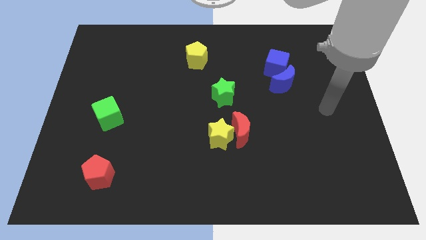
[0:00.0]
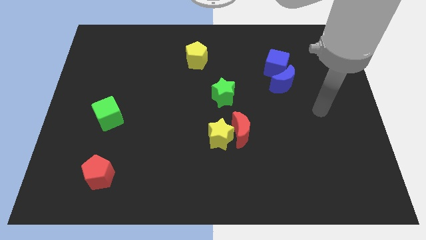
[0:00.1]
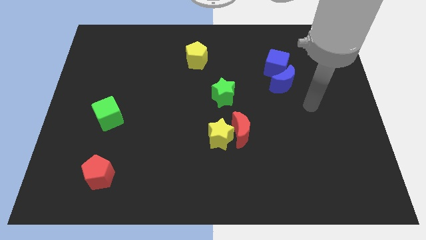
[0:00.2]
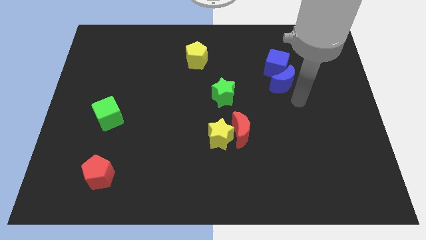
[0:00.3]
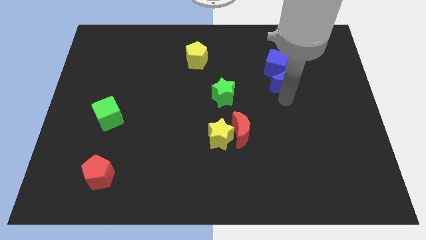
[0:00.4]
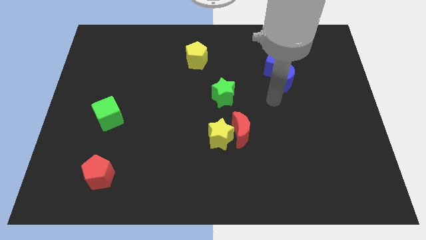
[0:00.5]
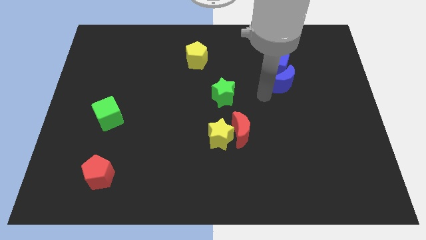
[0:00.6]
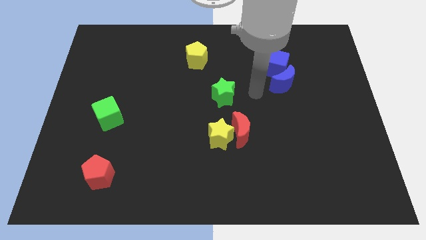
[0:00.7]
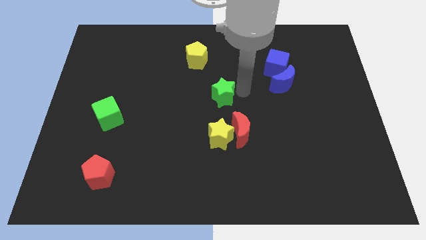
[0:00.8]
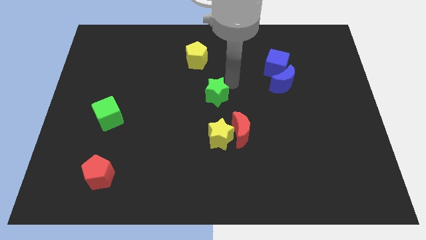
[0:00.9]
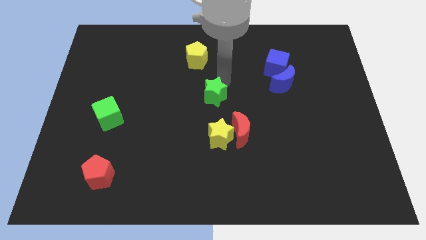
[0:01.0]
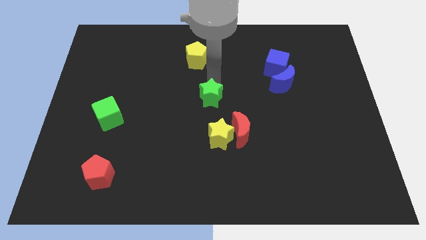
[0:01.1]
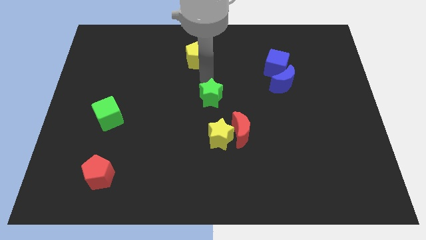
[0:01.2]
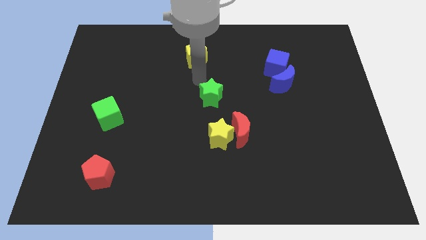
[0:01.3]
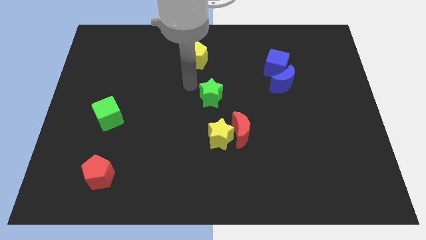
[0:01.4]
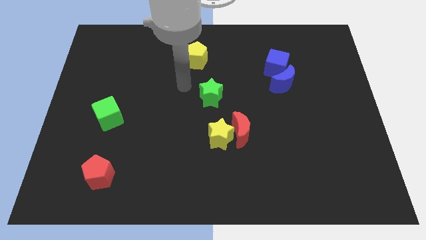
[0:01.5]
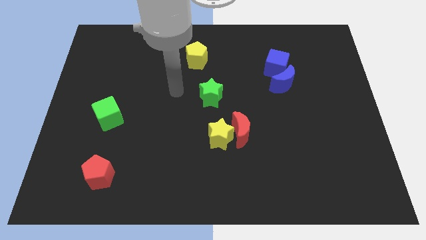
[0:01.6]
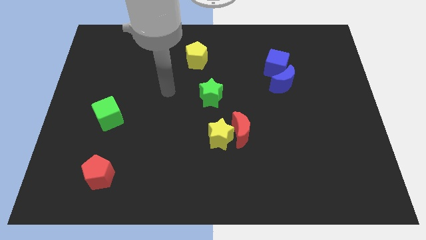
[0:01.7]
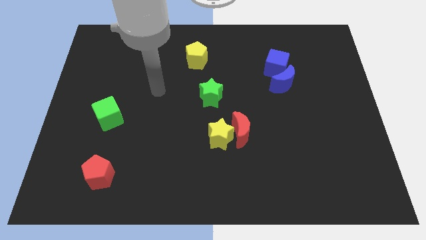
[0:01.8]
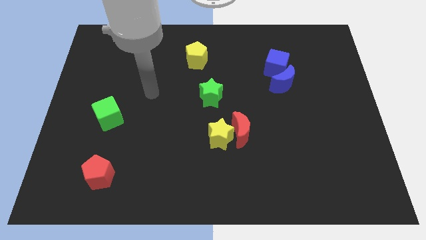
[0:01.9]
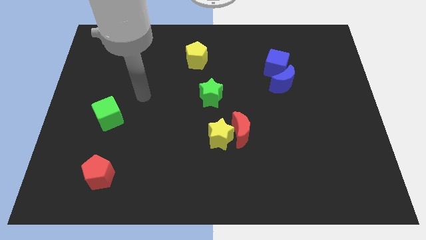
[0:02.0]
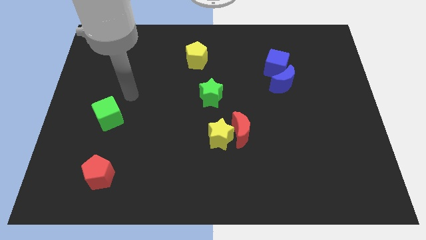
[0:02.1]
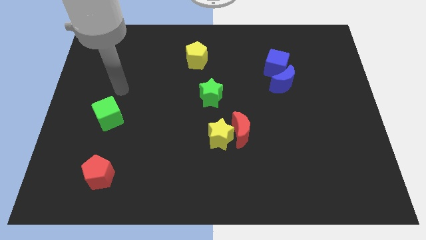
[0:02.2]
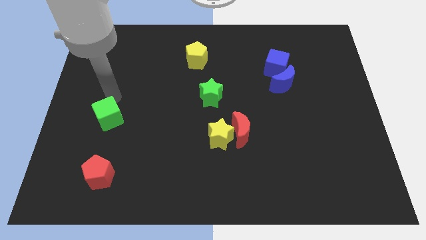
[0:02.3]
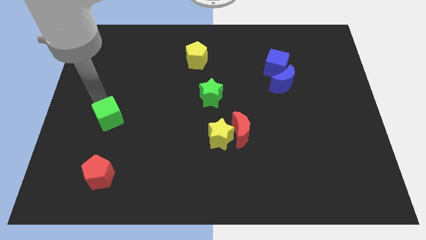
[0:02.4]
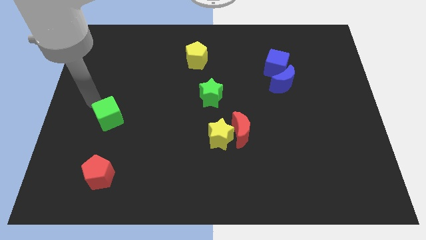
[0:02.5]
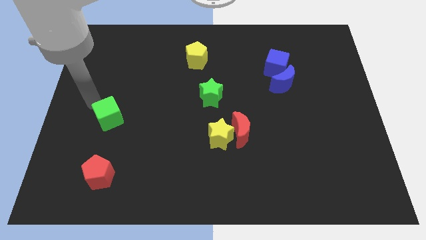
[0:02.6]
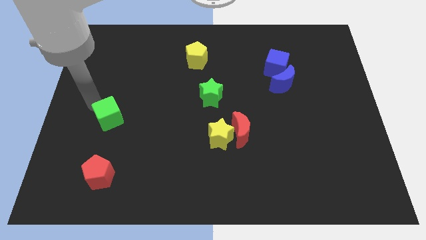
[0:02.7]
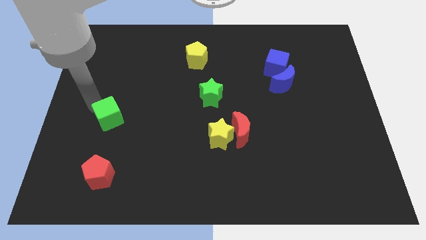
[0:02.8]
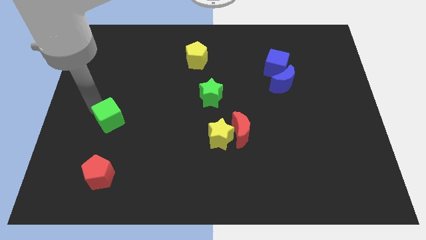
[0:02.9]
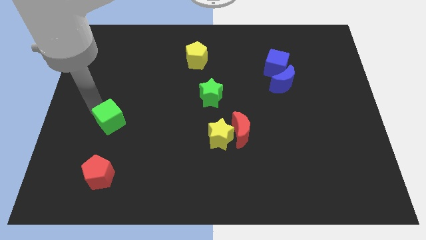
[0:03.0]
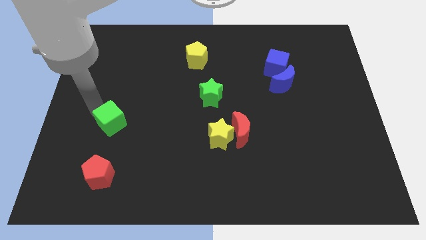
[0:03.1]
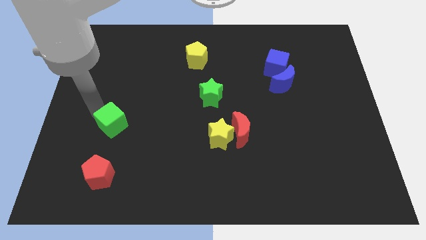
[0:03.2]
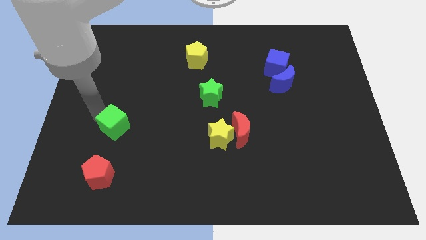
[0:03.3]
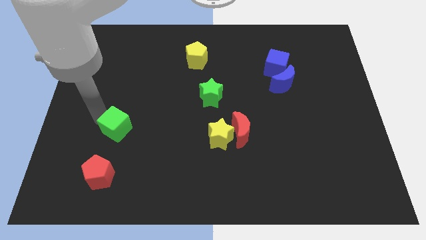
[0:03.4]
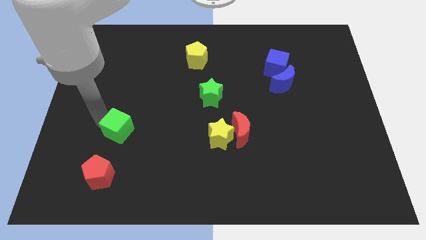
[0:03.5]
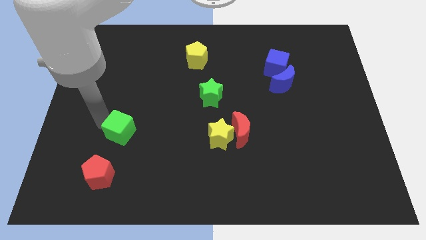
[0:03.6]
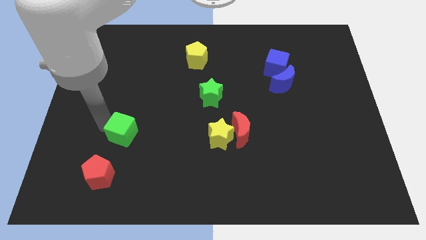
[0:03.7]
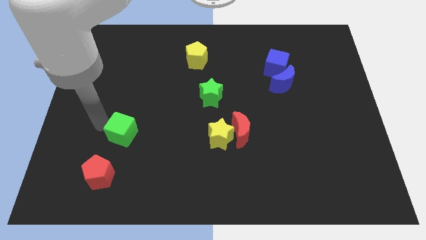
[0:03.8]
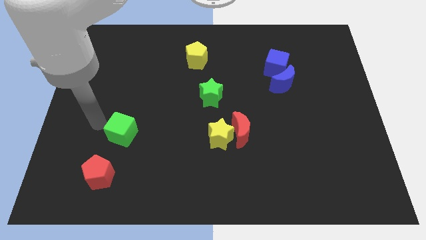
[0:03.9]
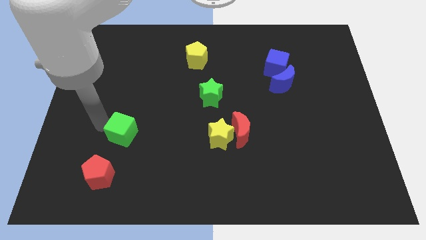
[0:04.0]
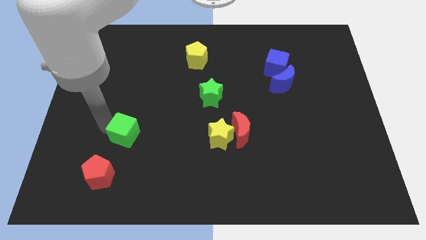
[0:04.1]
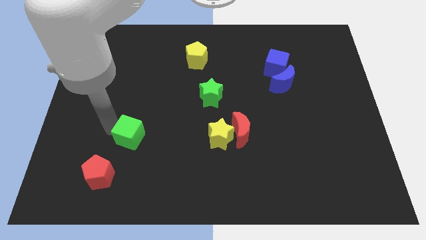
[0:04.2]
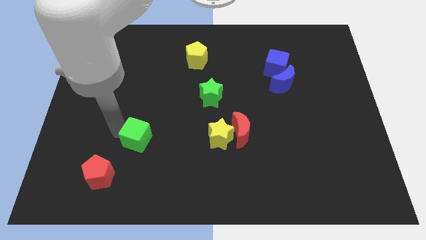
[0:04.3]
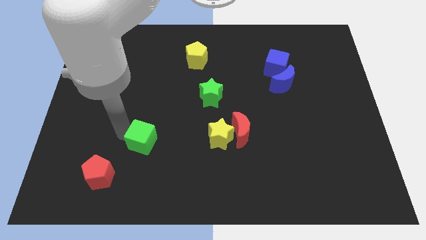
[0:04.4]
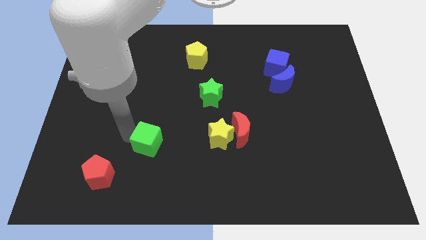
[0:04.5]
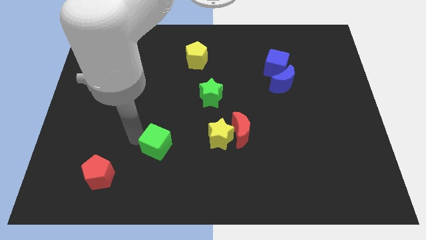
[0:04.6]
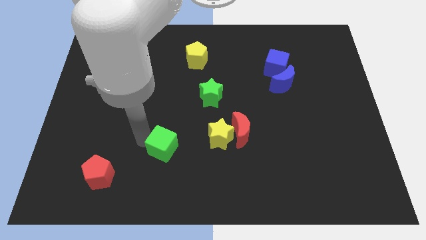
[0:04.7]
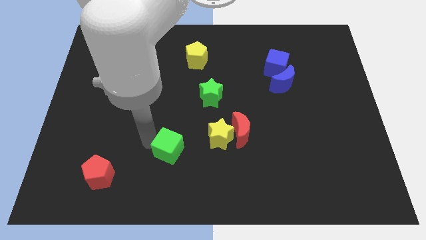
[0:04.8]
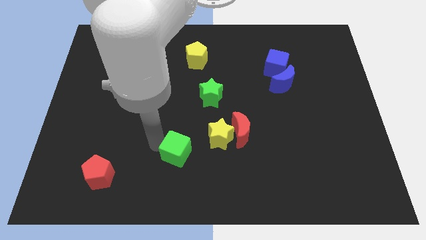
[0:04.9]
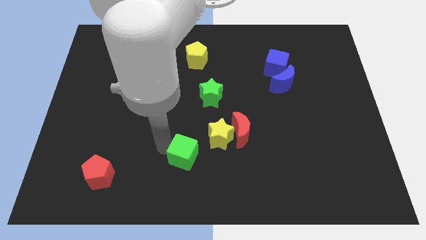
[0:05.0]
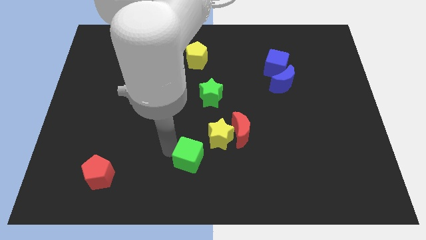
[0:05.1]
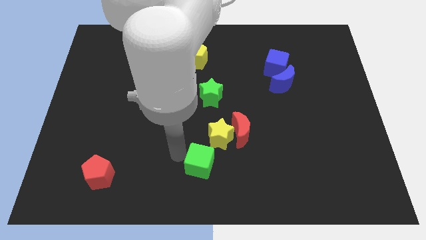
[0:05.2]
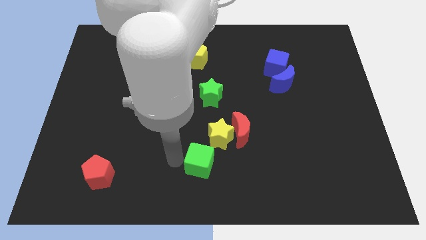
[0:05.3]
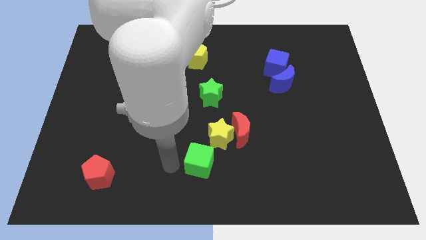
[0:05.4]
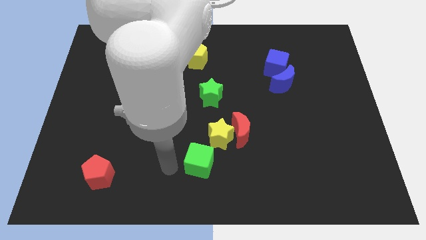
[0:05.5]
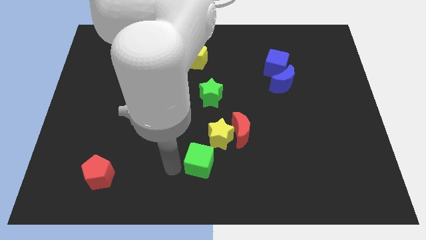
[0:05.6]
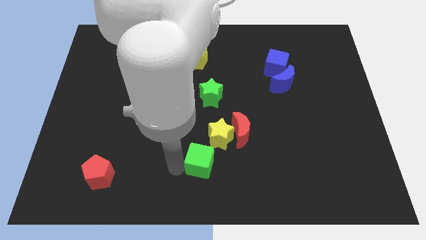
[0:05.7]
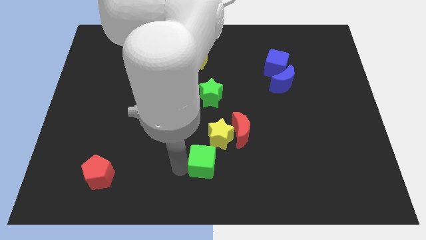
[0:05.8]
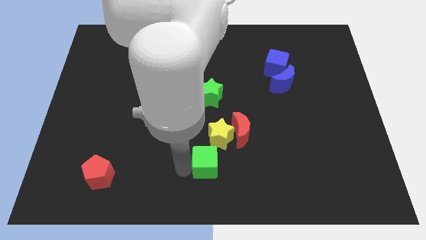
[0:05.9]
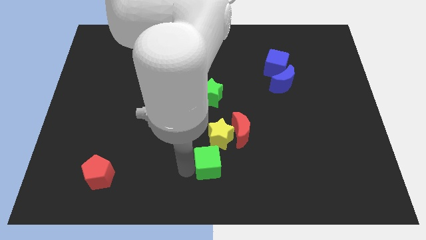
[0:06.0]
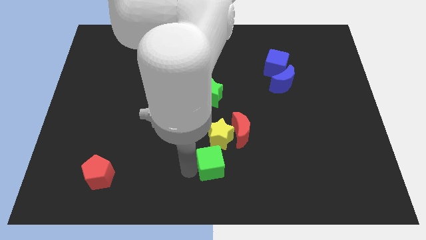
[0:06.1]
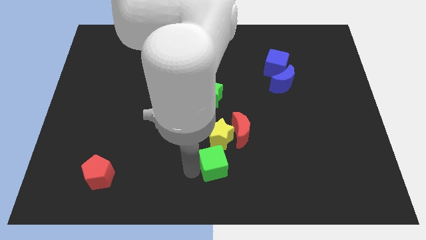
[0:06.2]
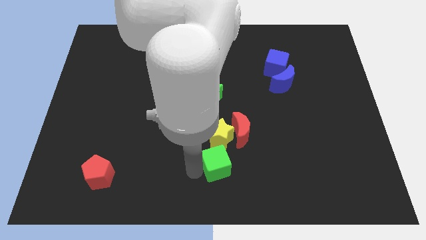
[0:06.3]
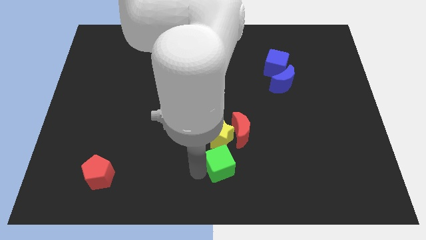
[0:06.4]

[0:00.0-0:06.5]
push the green cube to the bottom right of the yellow star

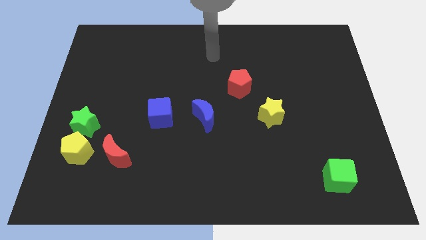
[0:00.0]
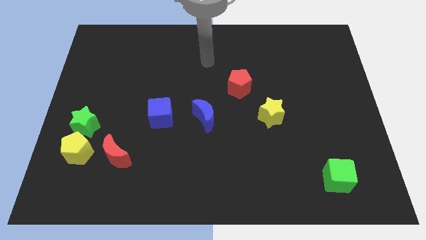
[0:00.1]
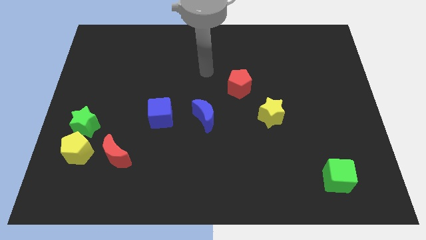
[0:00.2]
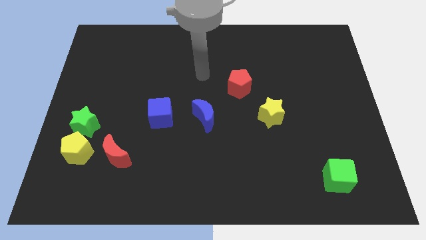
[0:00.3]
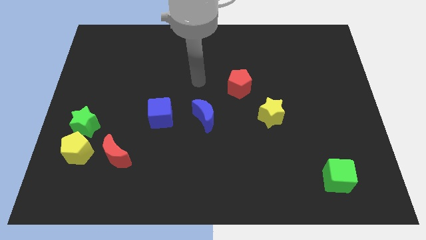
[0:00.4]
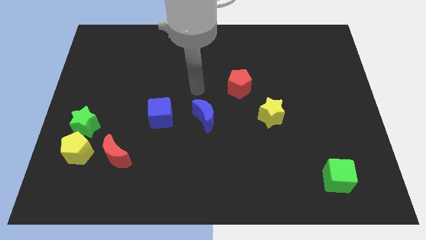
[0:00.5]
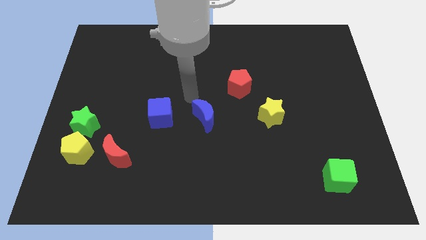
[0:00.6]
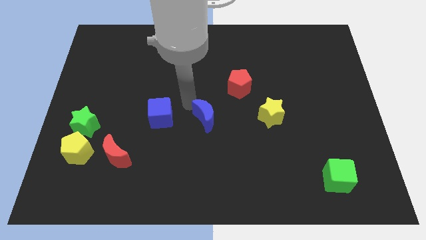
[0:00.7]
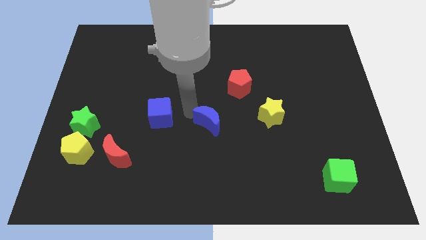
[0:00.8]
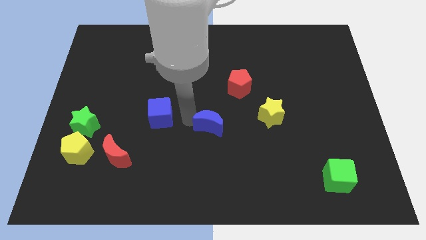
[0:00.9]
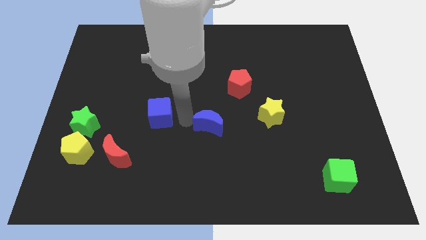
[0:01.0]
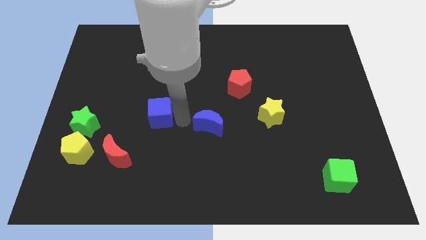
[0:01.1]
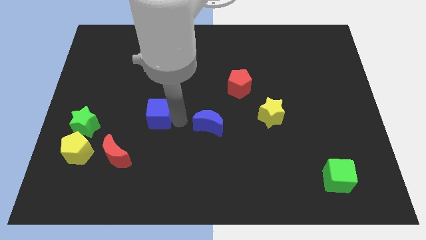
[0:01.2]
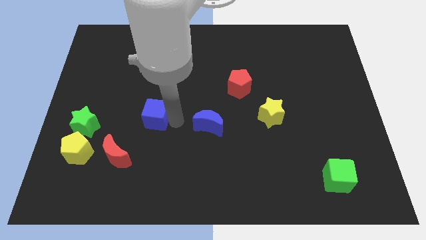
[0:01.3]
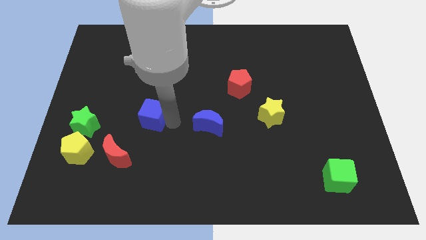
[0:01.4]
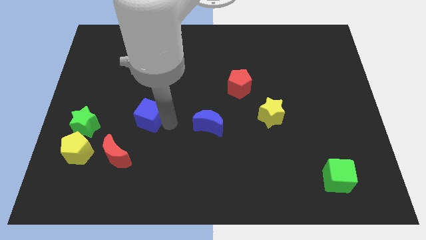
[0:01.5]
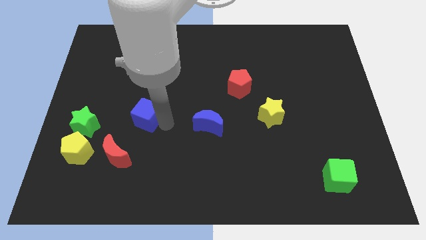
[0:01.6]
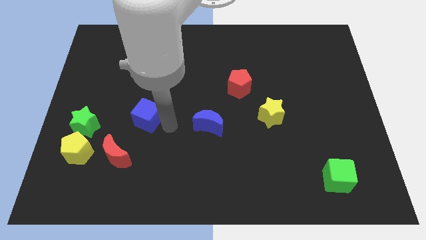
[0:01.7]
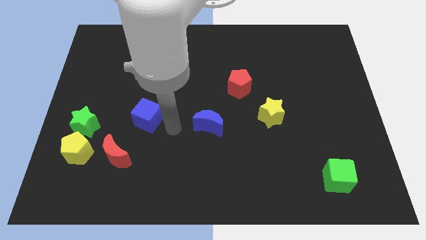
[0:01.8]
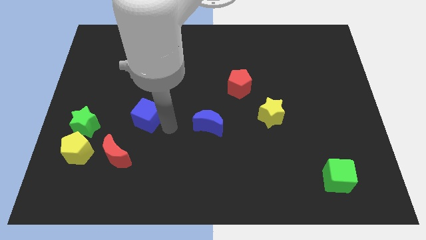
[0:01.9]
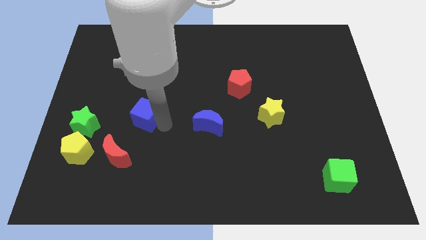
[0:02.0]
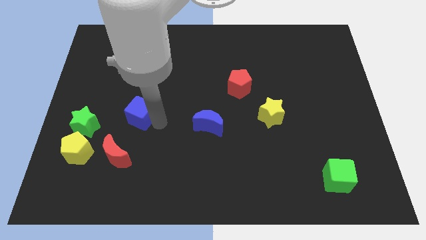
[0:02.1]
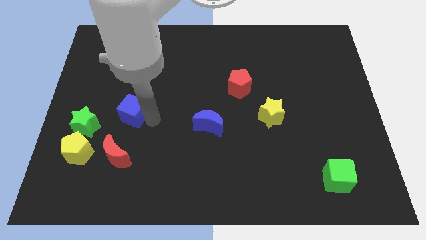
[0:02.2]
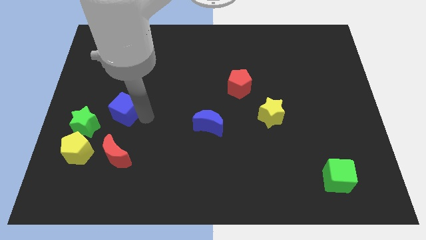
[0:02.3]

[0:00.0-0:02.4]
push the blue cube to the top right of the green star
